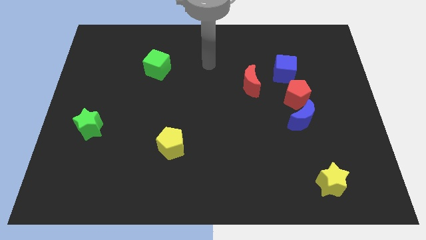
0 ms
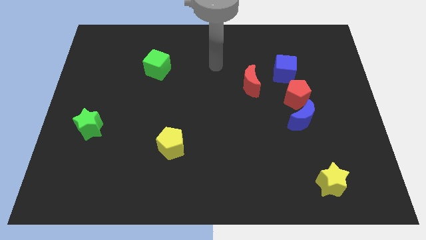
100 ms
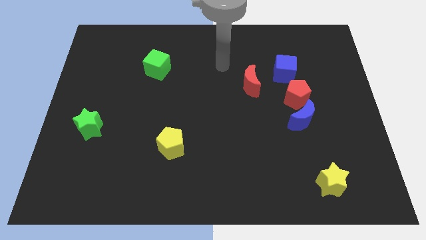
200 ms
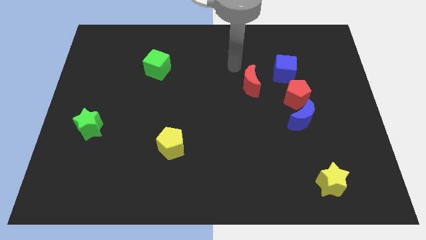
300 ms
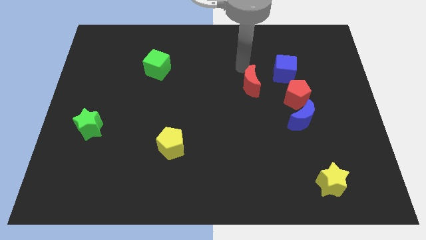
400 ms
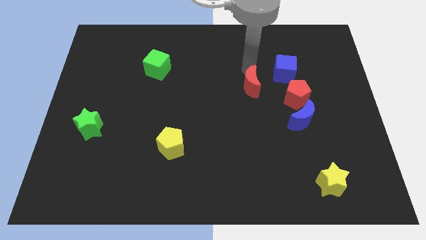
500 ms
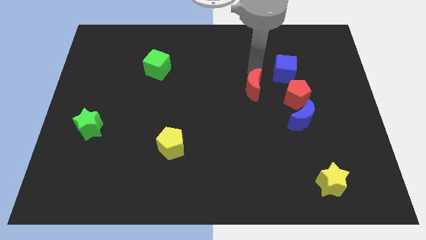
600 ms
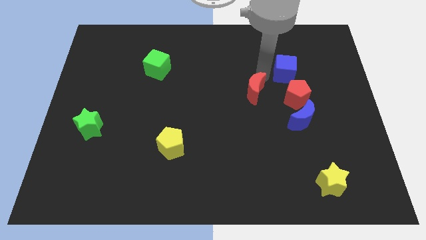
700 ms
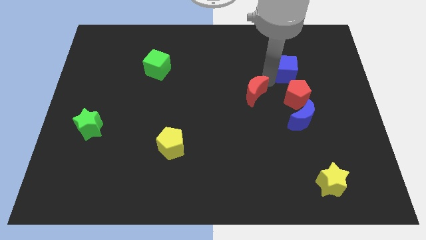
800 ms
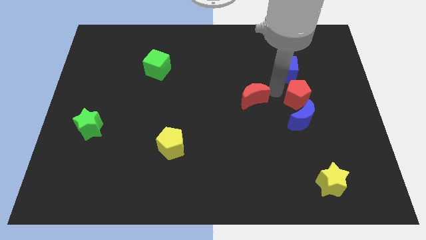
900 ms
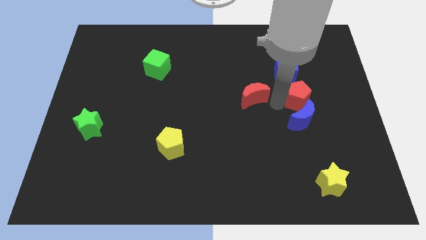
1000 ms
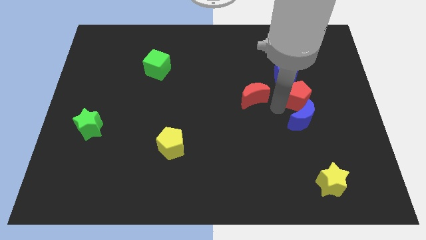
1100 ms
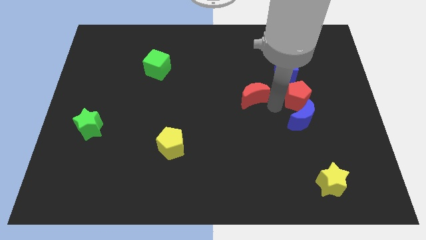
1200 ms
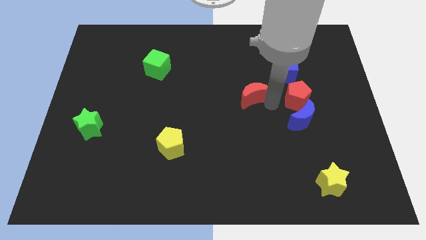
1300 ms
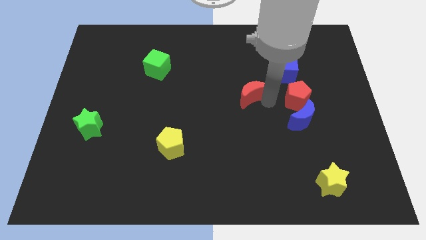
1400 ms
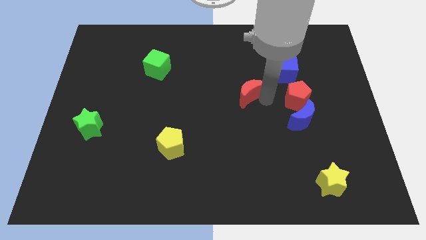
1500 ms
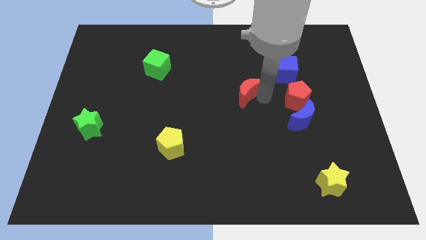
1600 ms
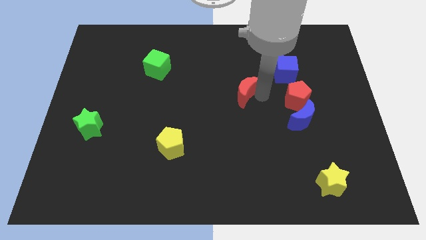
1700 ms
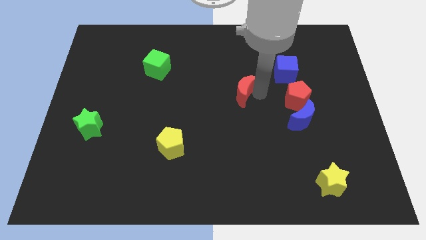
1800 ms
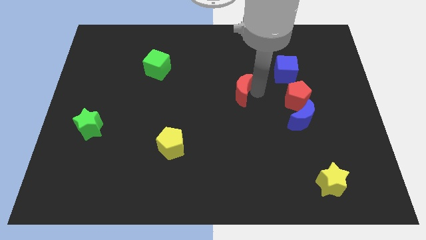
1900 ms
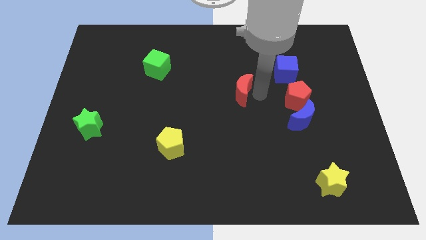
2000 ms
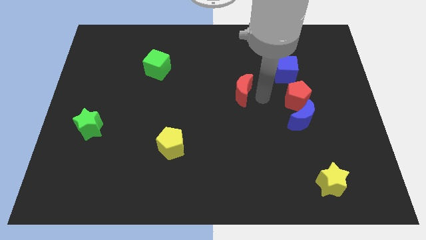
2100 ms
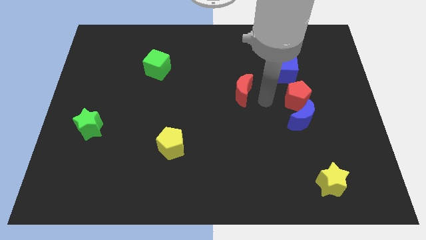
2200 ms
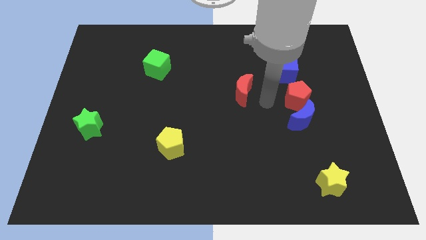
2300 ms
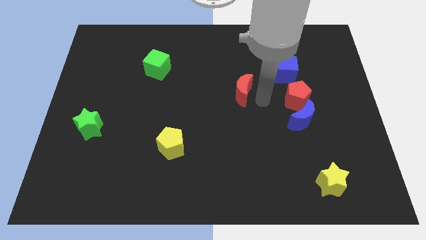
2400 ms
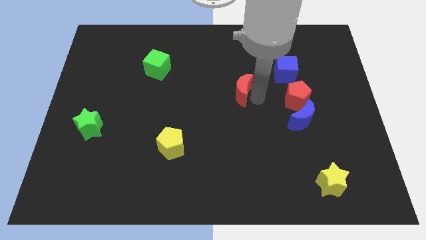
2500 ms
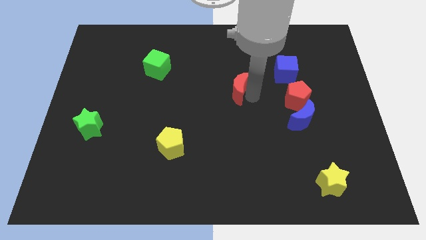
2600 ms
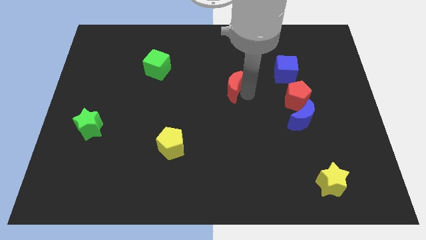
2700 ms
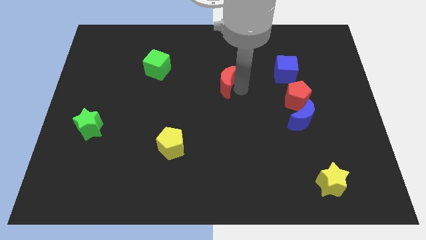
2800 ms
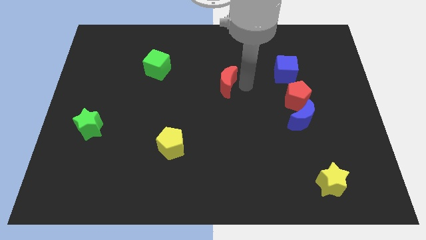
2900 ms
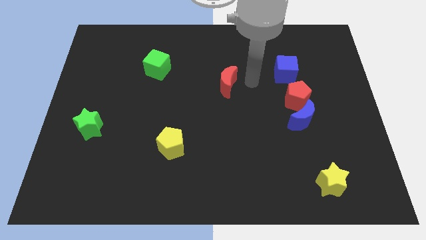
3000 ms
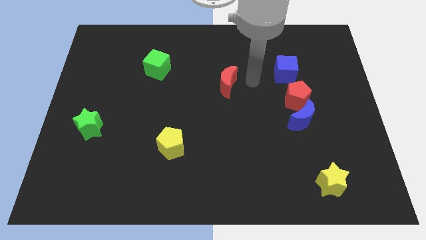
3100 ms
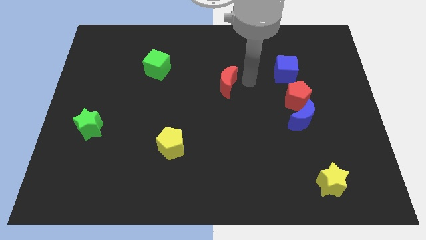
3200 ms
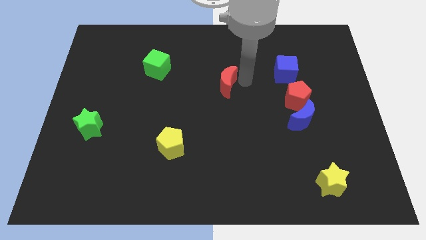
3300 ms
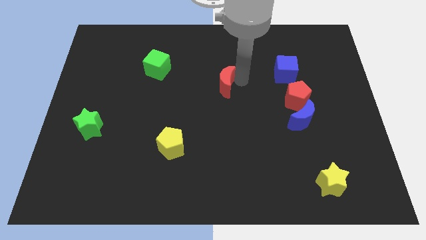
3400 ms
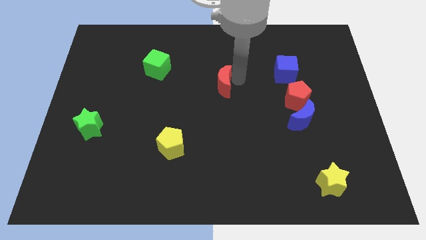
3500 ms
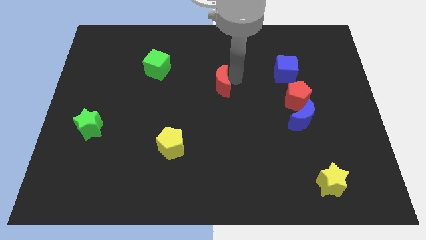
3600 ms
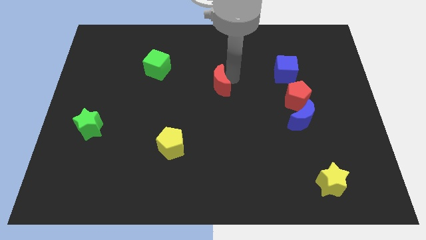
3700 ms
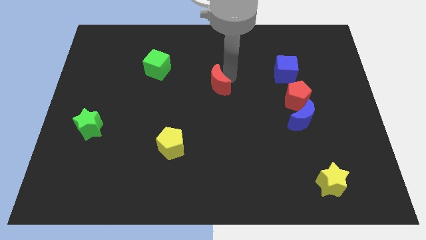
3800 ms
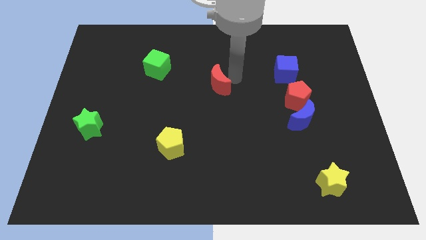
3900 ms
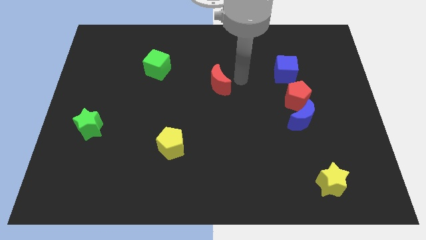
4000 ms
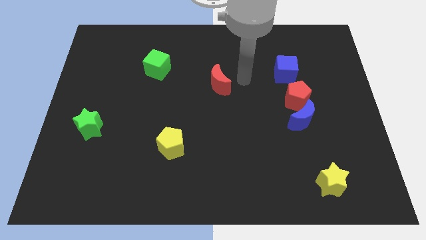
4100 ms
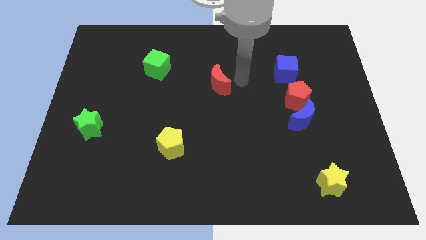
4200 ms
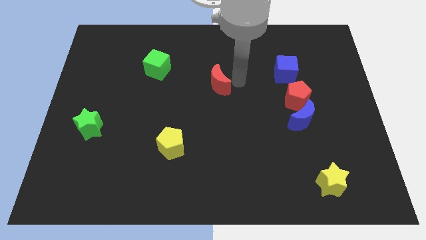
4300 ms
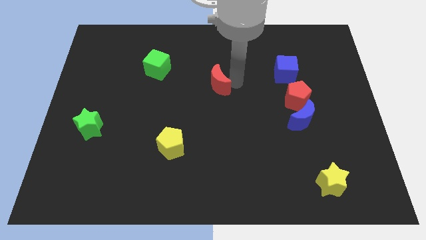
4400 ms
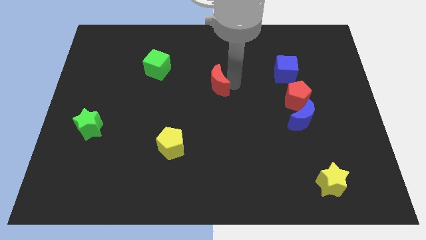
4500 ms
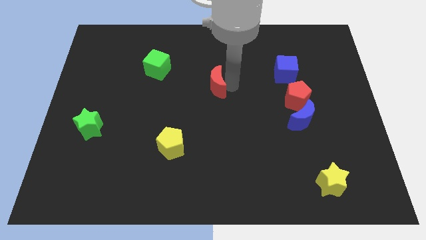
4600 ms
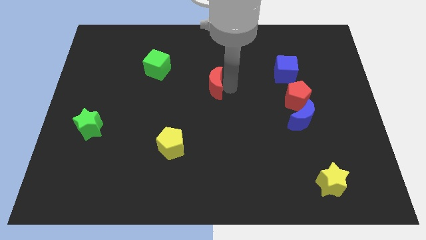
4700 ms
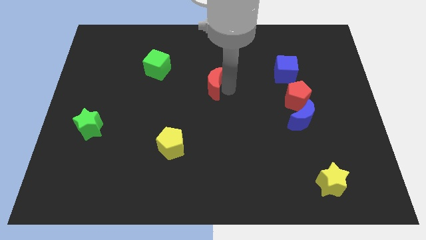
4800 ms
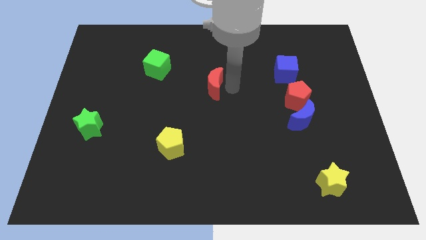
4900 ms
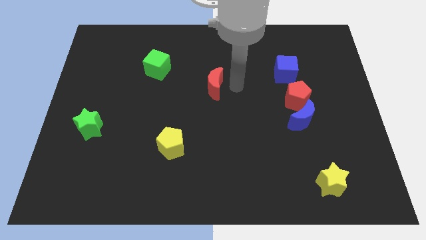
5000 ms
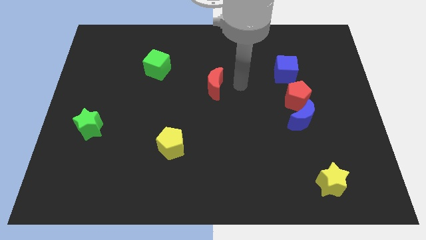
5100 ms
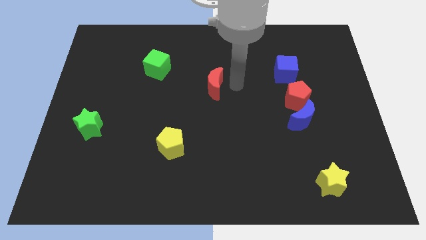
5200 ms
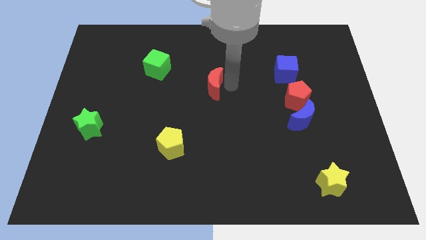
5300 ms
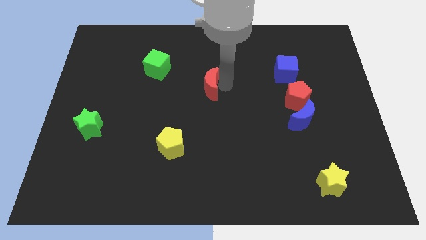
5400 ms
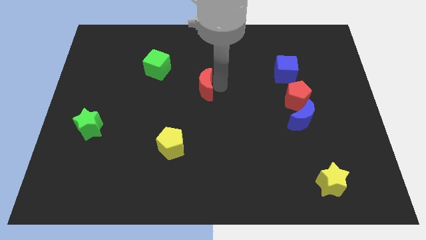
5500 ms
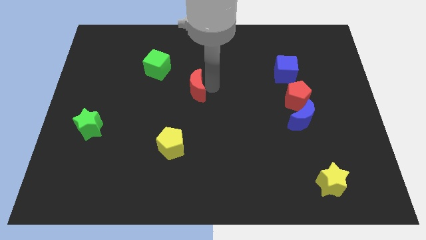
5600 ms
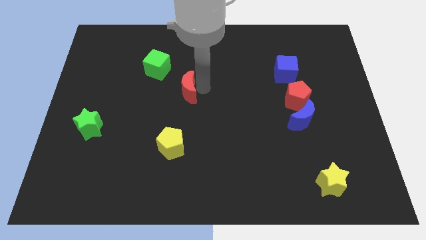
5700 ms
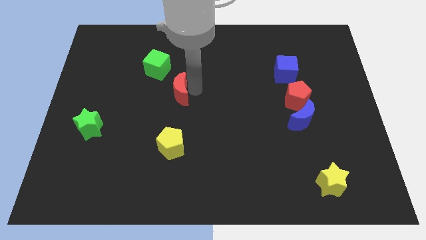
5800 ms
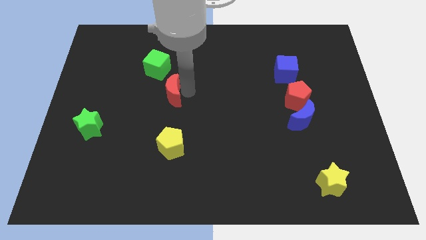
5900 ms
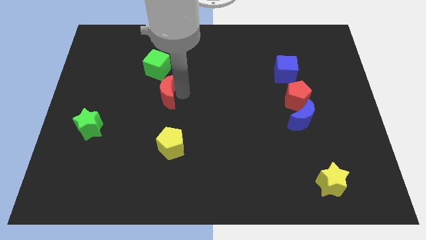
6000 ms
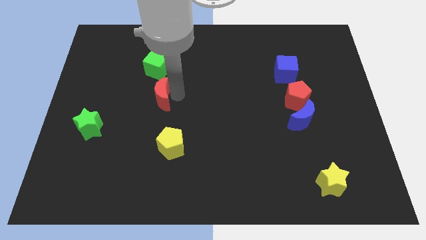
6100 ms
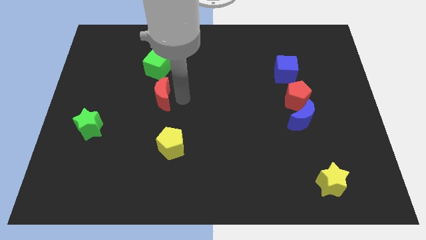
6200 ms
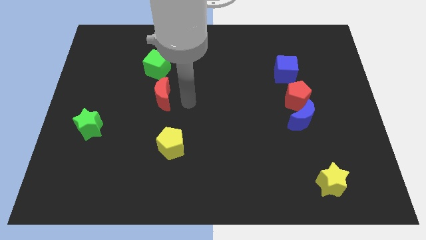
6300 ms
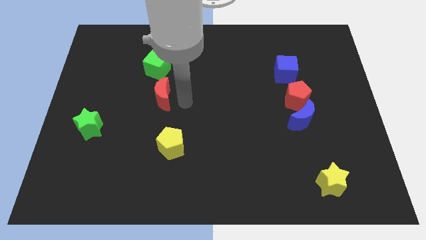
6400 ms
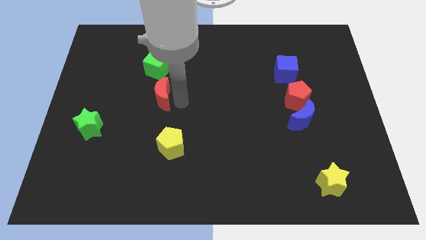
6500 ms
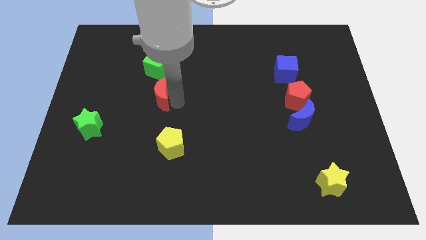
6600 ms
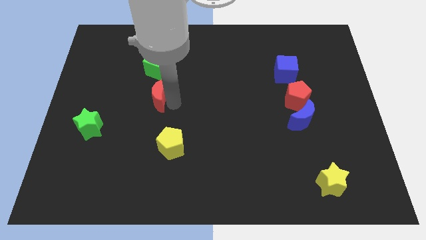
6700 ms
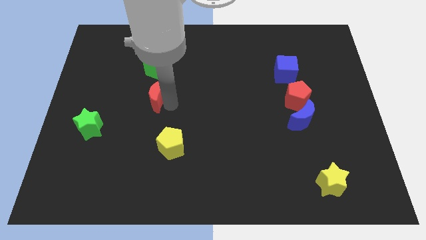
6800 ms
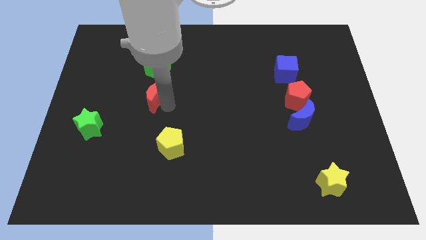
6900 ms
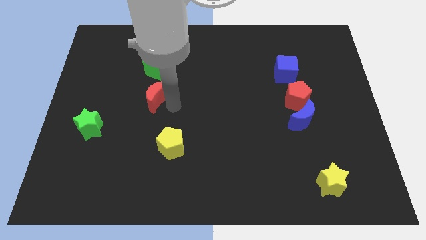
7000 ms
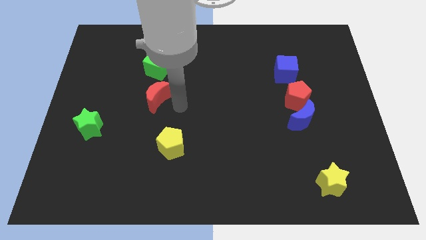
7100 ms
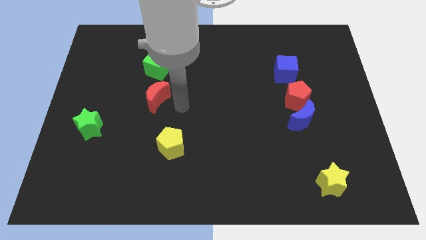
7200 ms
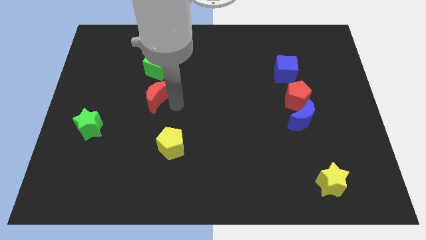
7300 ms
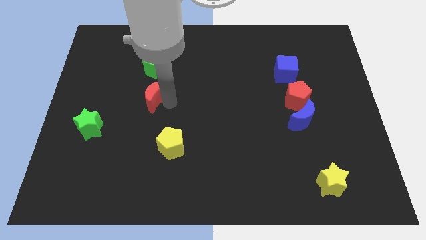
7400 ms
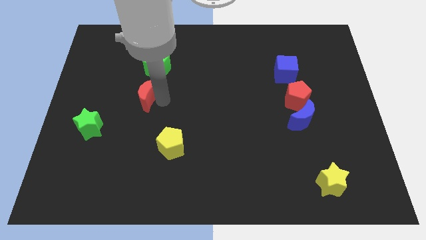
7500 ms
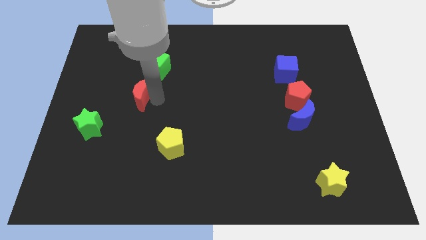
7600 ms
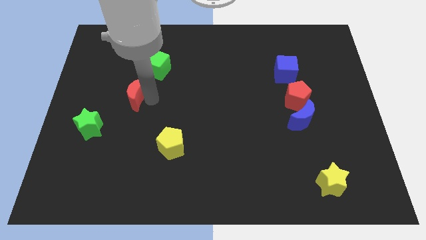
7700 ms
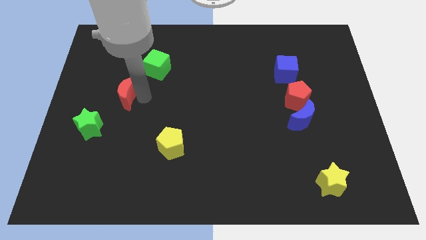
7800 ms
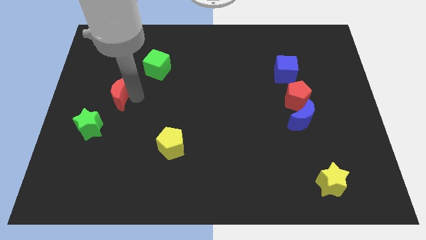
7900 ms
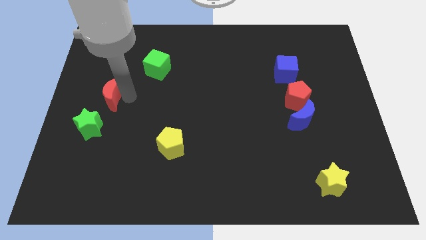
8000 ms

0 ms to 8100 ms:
put the red moon above the green star
